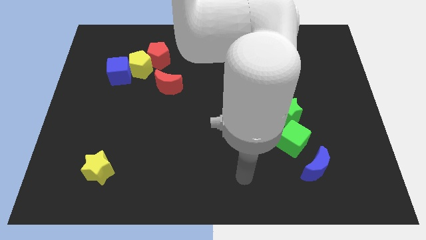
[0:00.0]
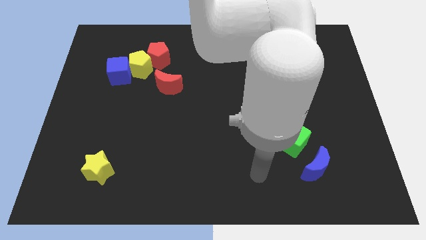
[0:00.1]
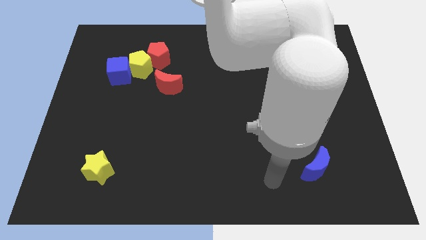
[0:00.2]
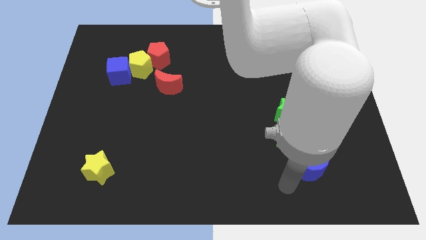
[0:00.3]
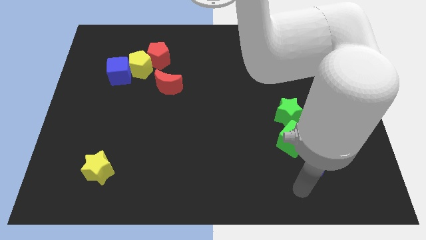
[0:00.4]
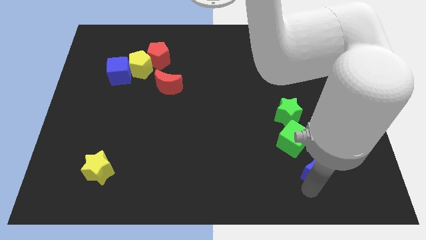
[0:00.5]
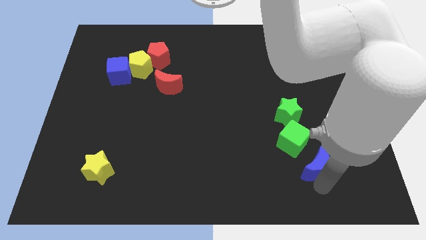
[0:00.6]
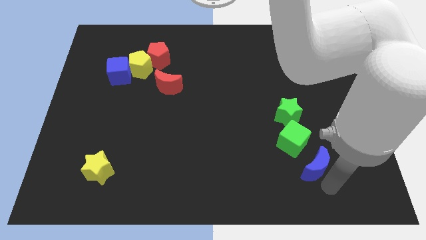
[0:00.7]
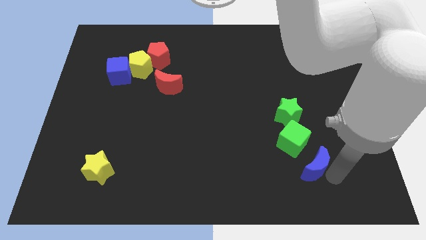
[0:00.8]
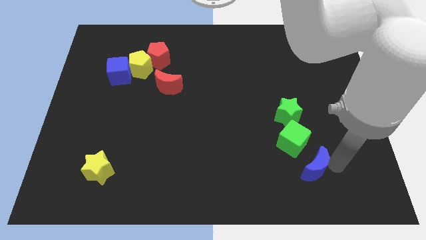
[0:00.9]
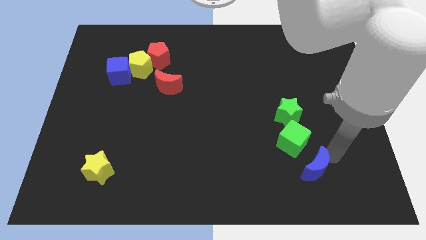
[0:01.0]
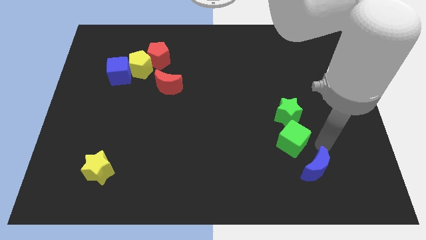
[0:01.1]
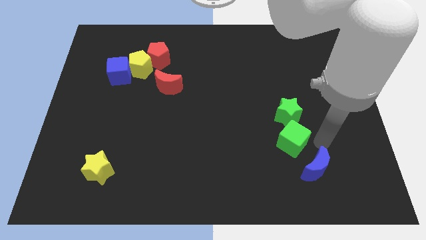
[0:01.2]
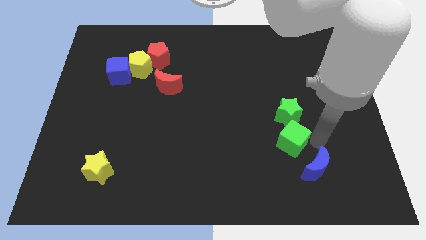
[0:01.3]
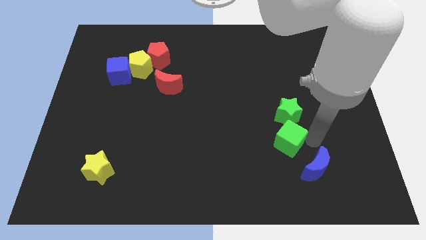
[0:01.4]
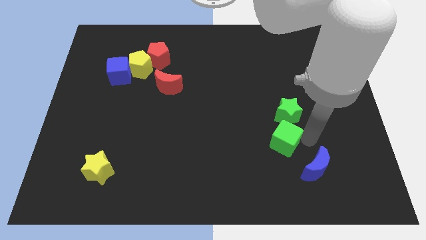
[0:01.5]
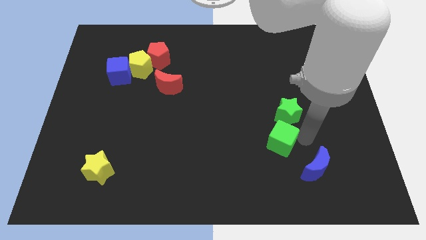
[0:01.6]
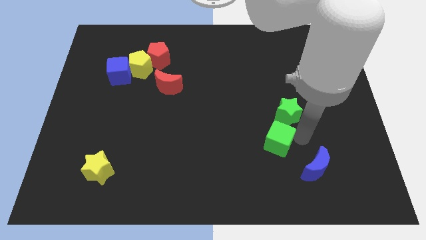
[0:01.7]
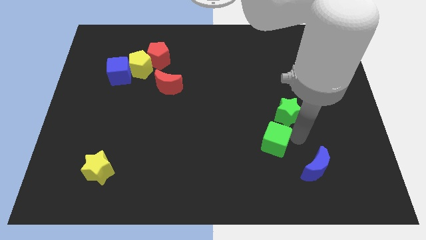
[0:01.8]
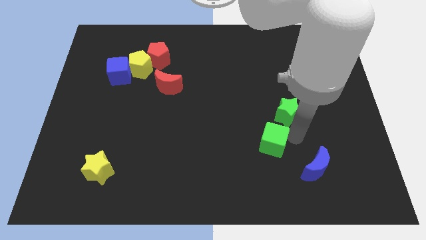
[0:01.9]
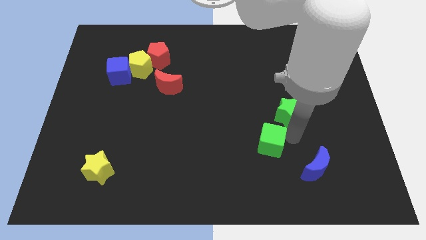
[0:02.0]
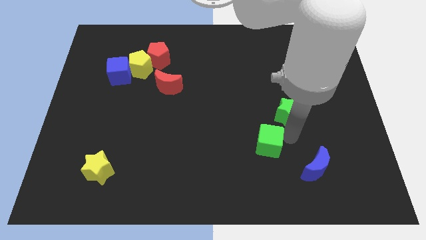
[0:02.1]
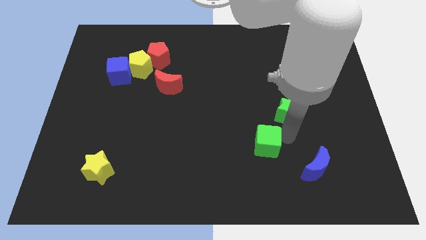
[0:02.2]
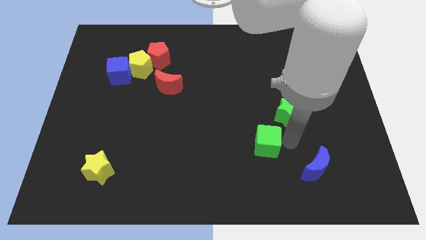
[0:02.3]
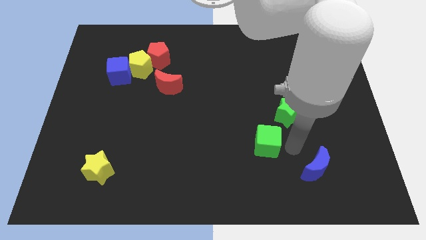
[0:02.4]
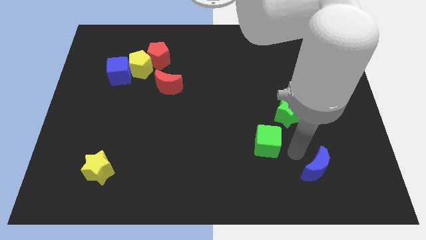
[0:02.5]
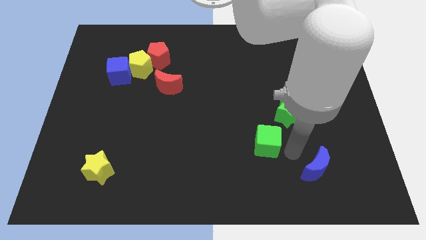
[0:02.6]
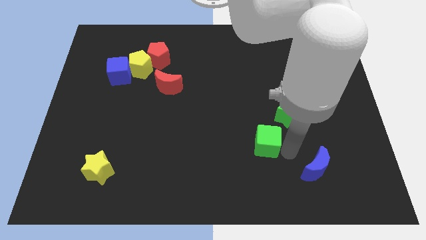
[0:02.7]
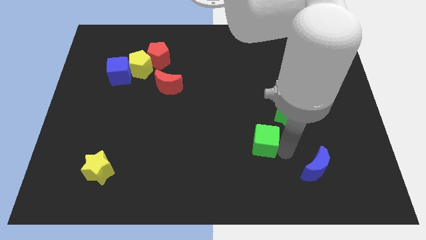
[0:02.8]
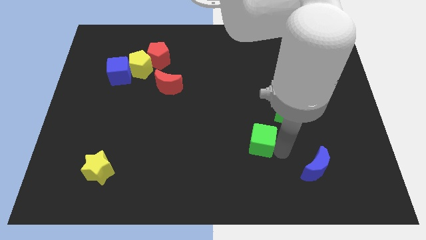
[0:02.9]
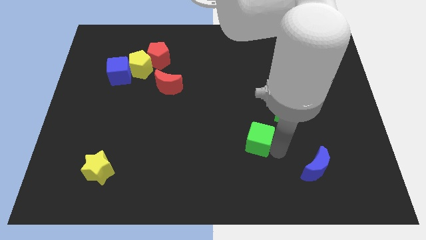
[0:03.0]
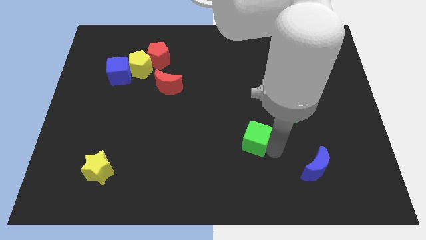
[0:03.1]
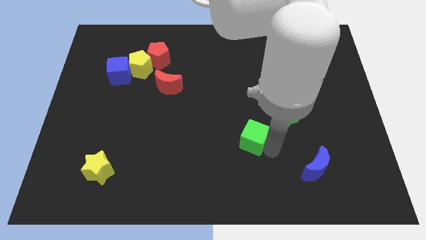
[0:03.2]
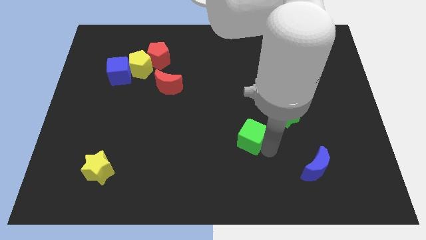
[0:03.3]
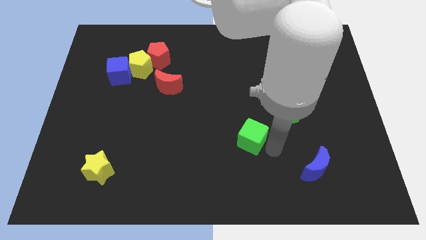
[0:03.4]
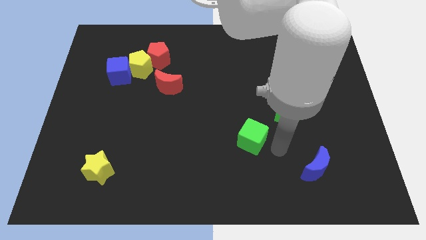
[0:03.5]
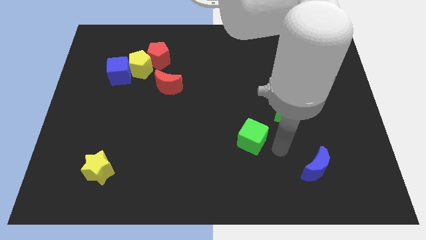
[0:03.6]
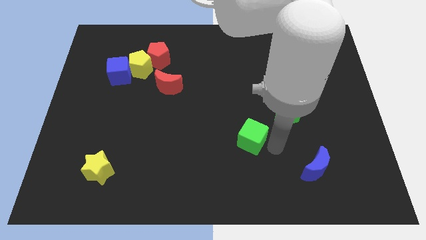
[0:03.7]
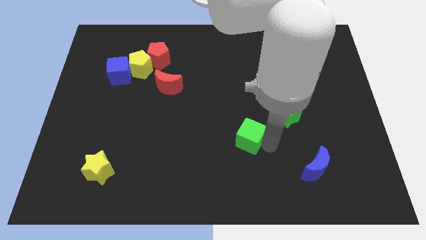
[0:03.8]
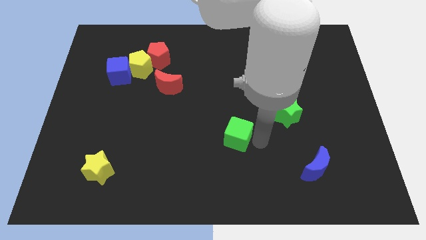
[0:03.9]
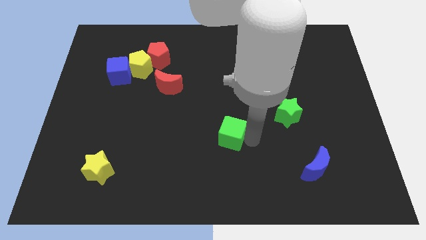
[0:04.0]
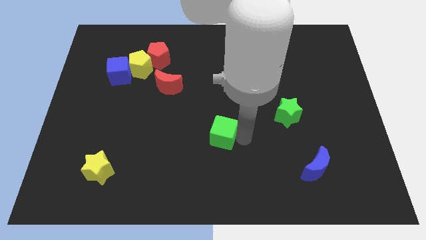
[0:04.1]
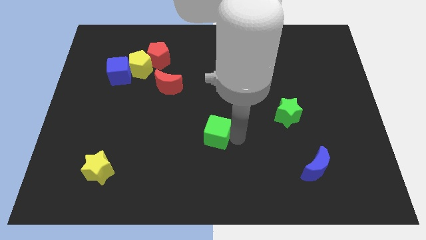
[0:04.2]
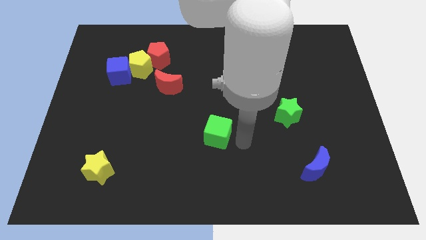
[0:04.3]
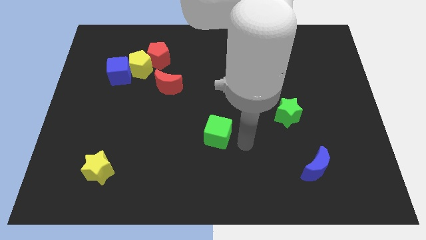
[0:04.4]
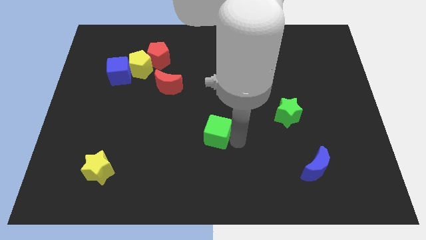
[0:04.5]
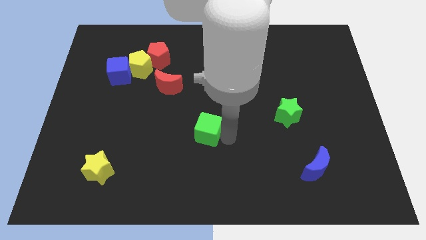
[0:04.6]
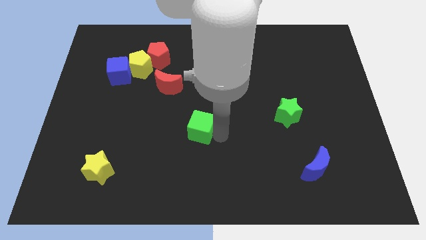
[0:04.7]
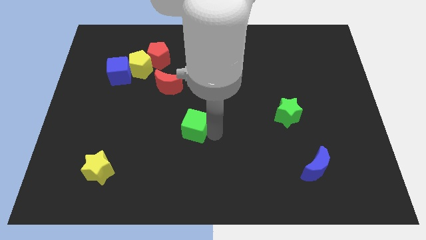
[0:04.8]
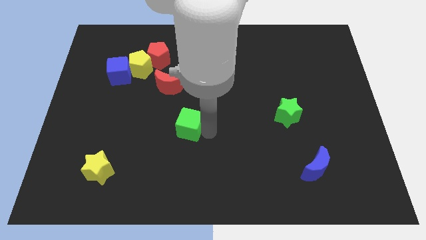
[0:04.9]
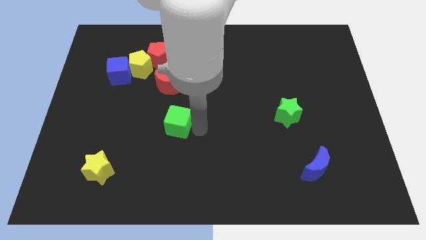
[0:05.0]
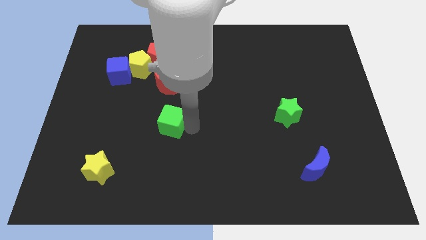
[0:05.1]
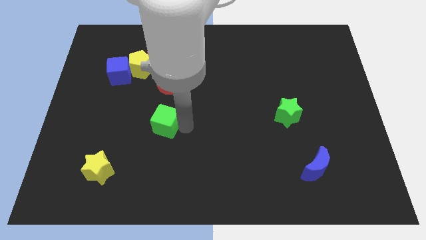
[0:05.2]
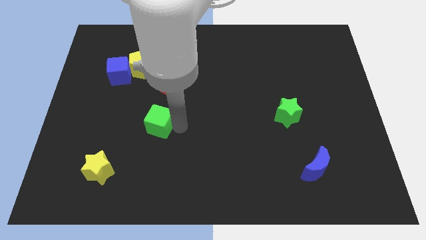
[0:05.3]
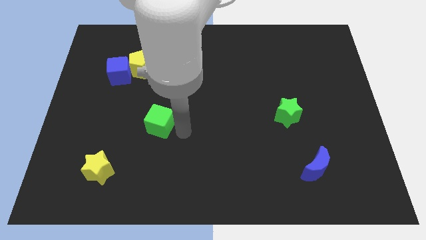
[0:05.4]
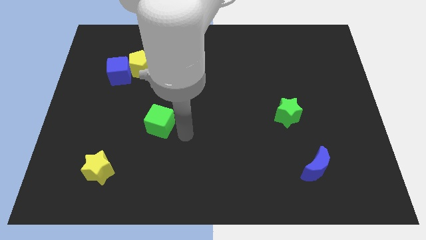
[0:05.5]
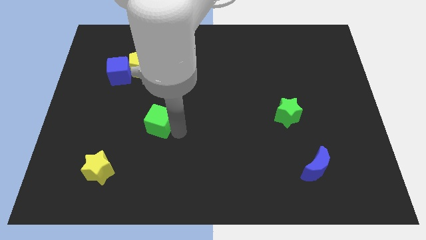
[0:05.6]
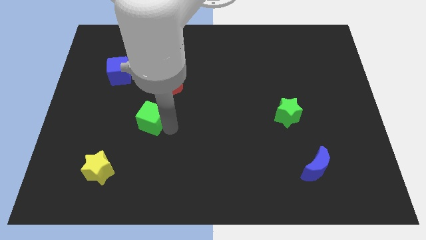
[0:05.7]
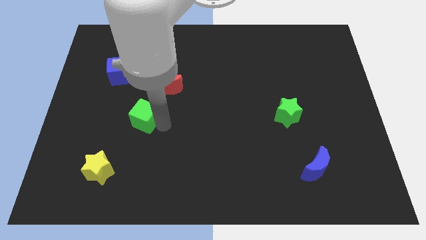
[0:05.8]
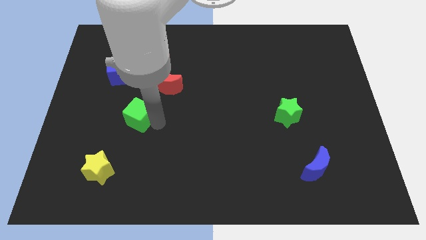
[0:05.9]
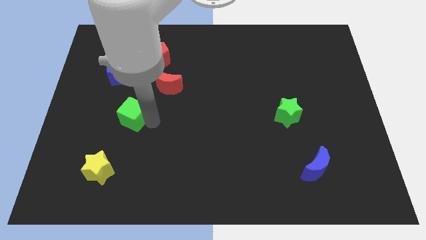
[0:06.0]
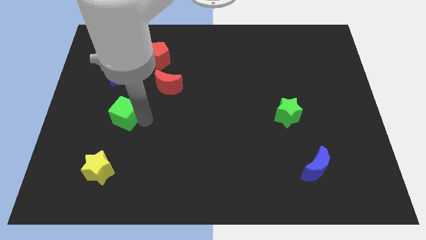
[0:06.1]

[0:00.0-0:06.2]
push the green cube to the bottom of the blue cube

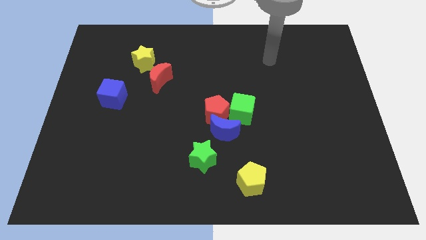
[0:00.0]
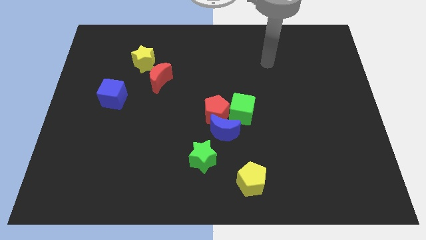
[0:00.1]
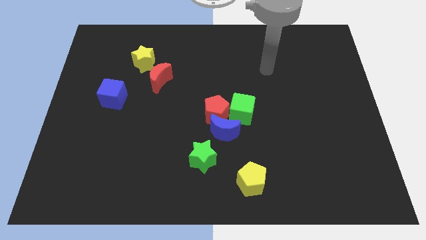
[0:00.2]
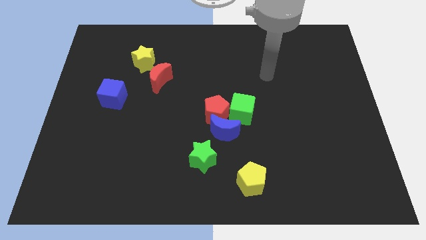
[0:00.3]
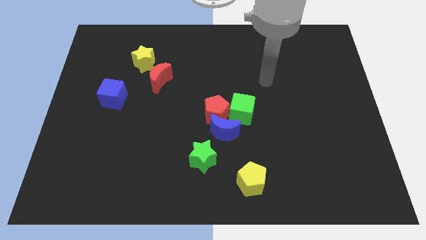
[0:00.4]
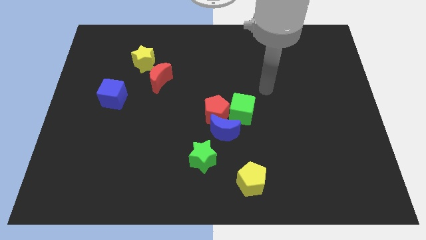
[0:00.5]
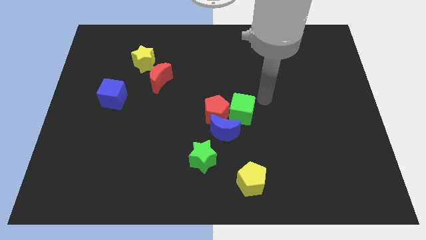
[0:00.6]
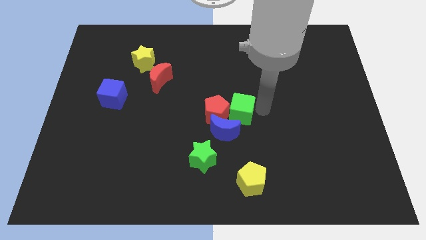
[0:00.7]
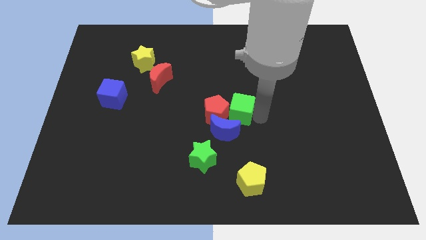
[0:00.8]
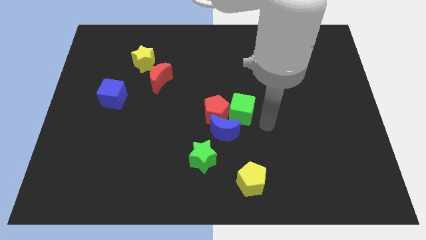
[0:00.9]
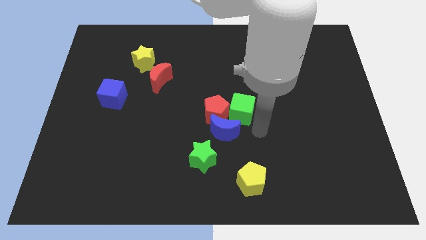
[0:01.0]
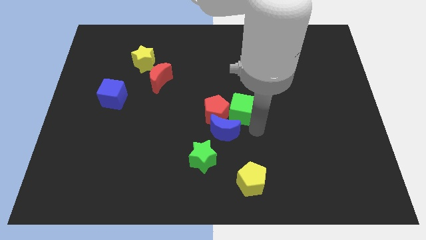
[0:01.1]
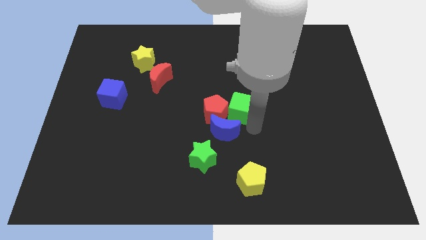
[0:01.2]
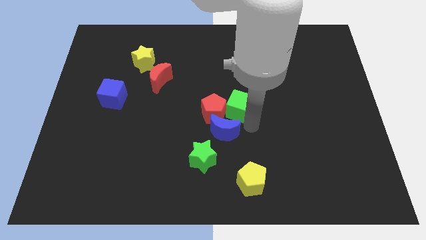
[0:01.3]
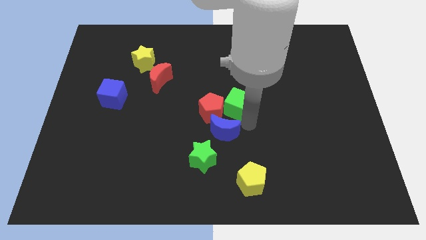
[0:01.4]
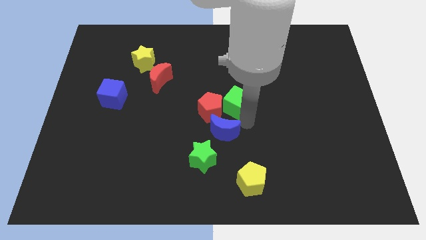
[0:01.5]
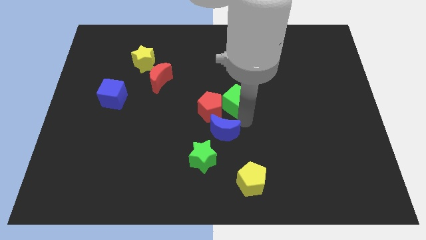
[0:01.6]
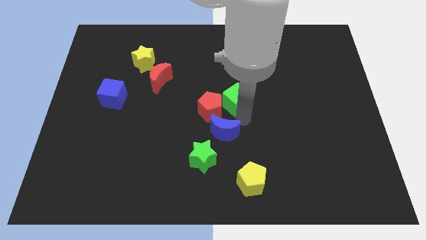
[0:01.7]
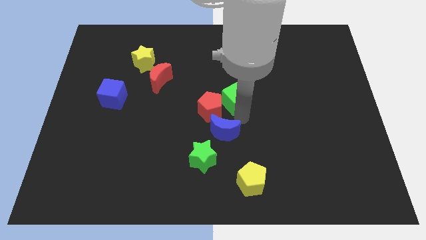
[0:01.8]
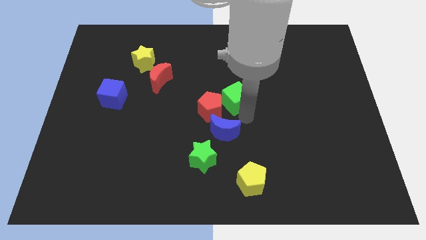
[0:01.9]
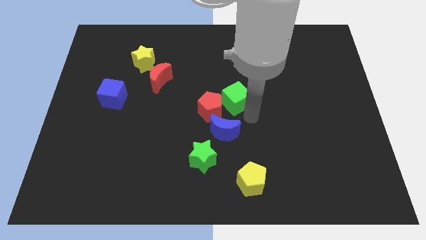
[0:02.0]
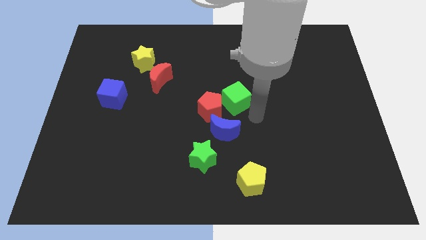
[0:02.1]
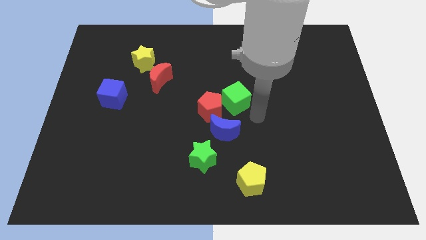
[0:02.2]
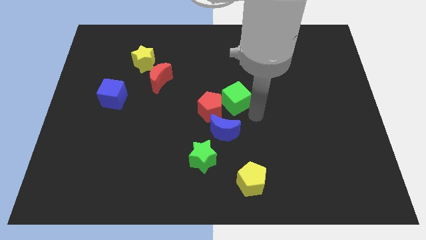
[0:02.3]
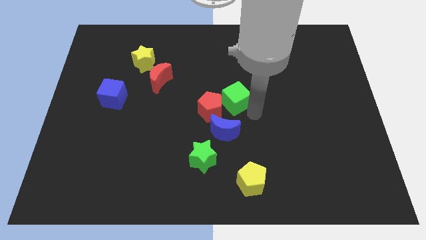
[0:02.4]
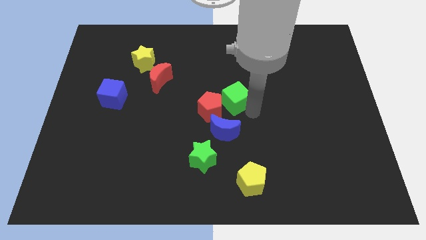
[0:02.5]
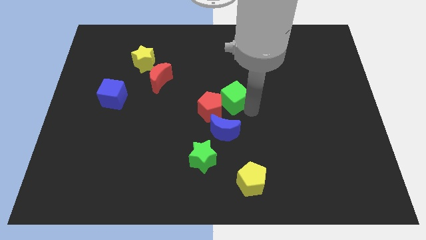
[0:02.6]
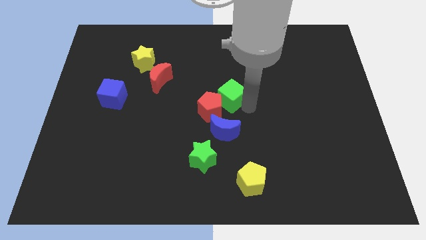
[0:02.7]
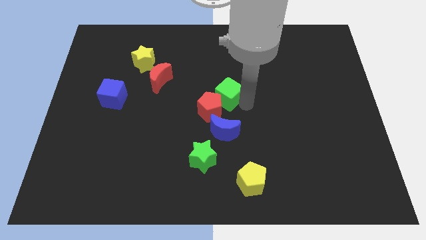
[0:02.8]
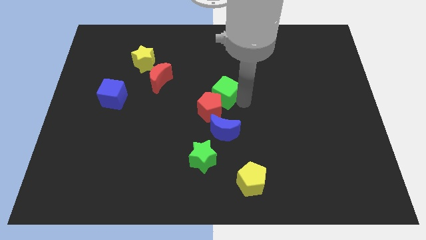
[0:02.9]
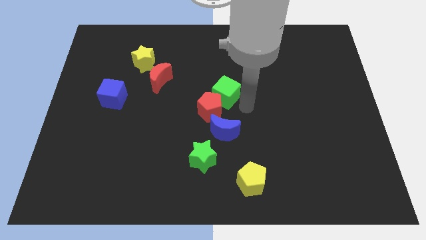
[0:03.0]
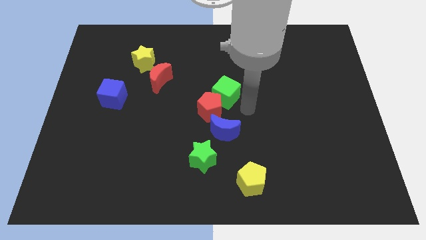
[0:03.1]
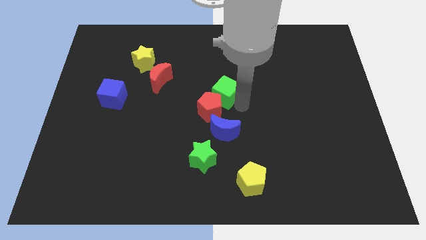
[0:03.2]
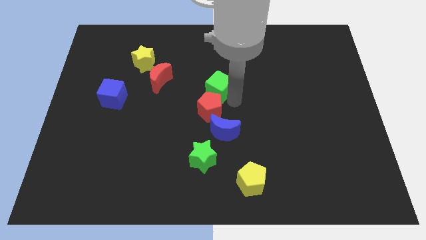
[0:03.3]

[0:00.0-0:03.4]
push the green cube to the right of the red moon
